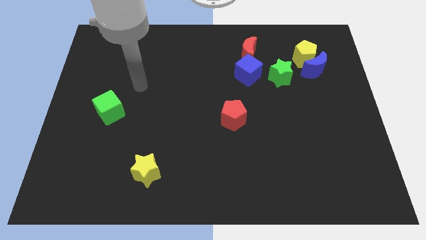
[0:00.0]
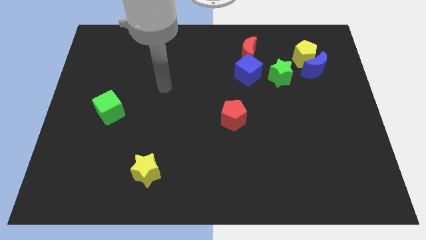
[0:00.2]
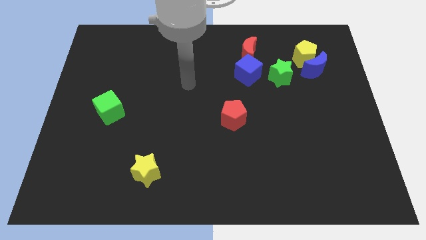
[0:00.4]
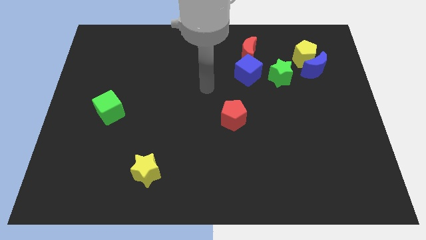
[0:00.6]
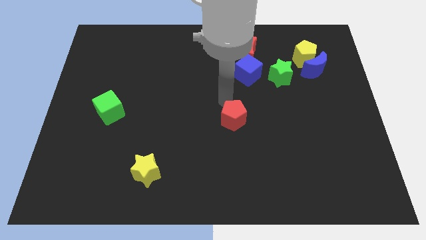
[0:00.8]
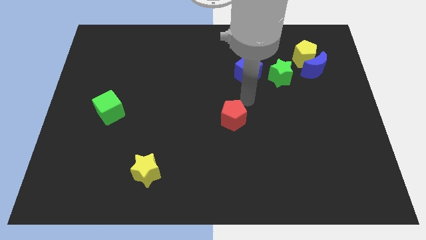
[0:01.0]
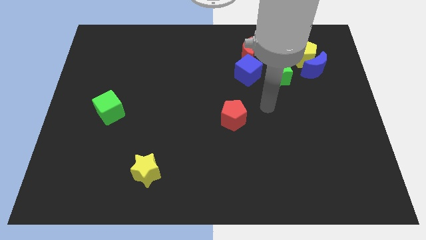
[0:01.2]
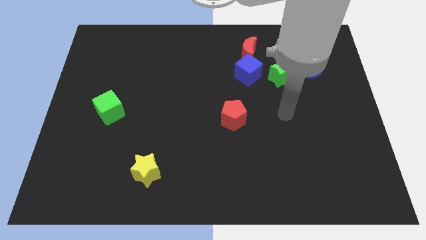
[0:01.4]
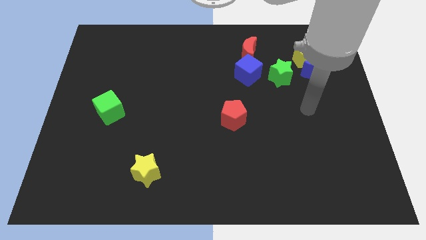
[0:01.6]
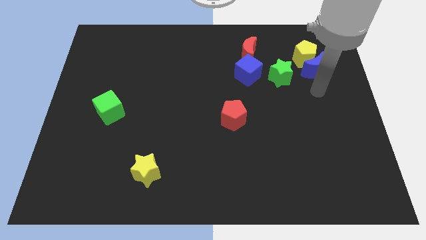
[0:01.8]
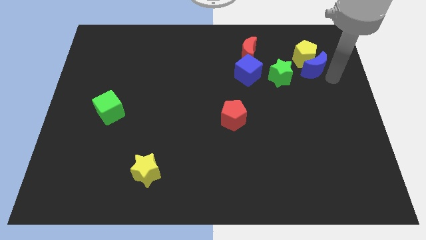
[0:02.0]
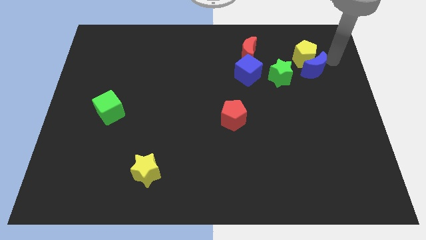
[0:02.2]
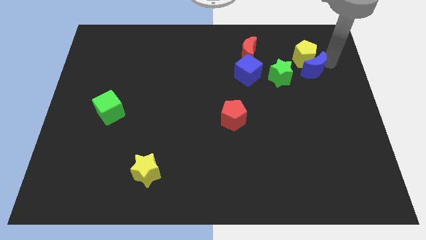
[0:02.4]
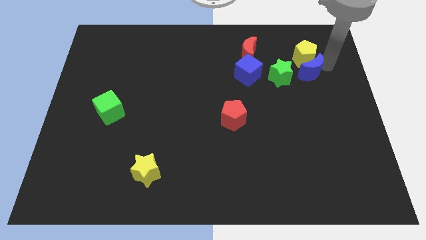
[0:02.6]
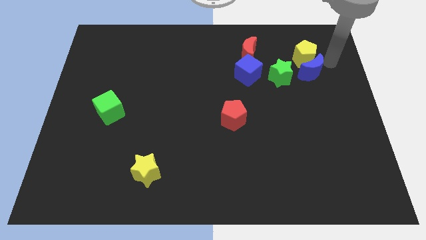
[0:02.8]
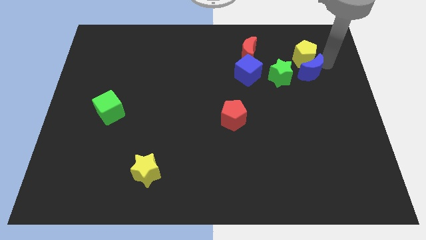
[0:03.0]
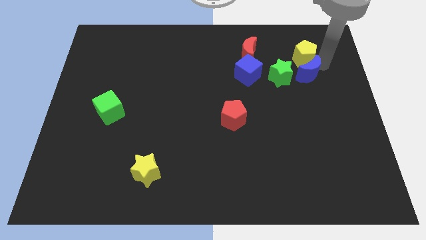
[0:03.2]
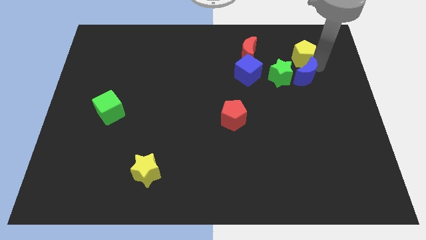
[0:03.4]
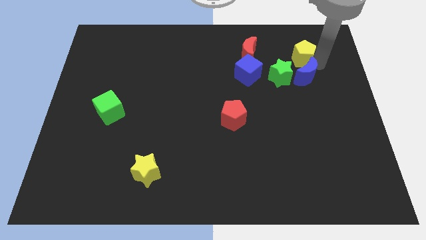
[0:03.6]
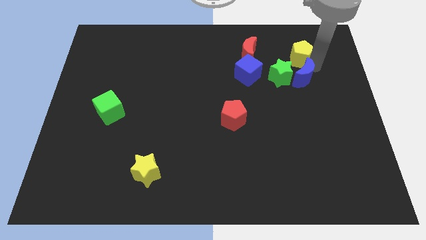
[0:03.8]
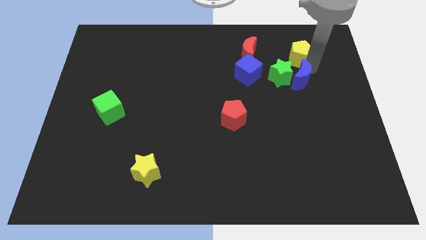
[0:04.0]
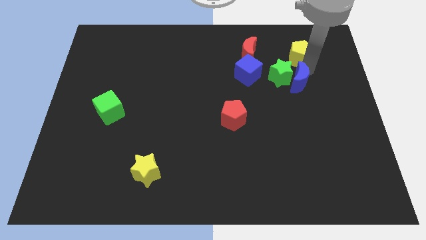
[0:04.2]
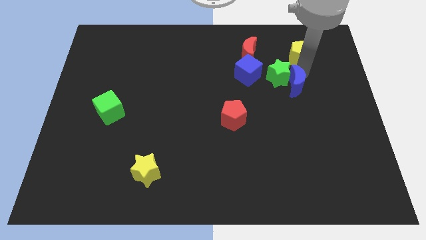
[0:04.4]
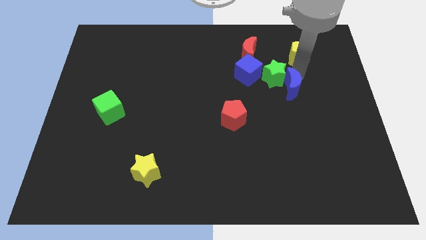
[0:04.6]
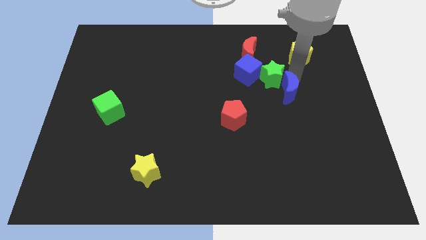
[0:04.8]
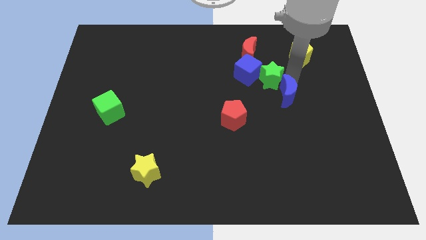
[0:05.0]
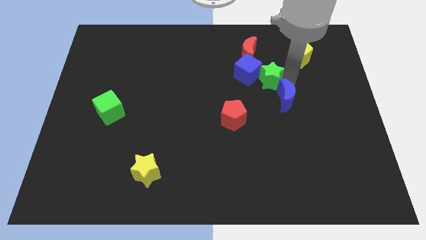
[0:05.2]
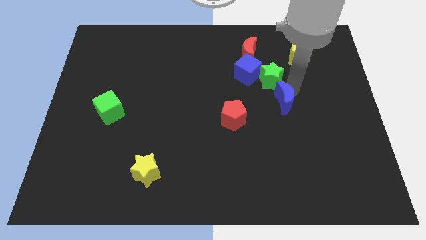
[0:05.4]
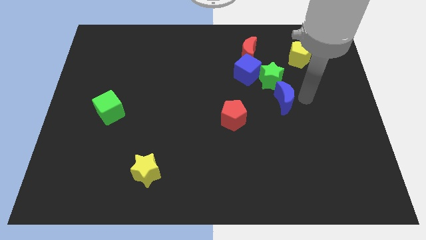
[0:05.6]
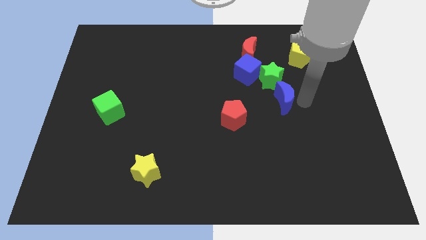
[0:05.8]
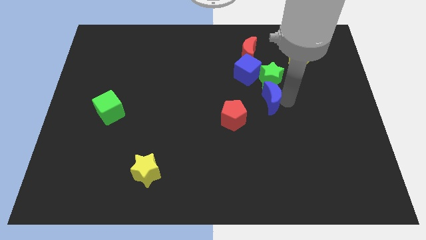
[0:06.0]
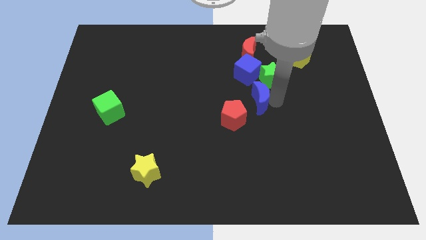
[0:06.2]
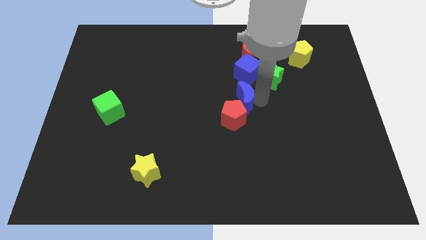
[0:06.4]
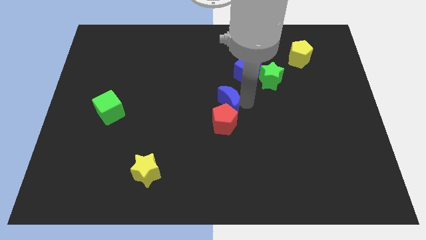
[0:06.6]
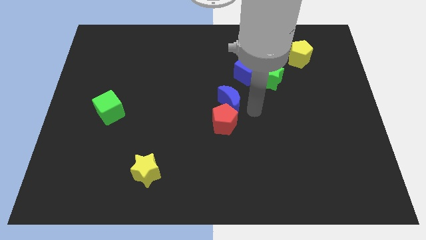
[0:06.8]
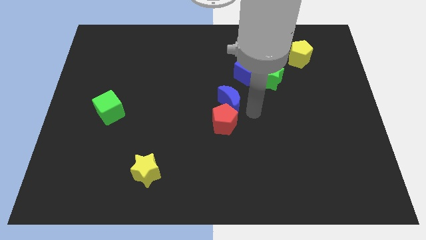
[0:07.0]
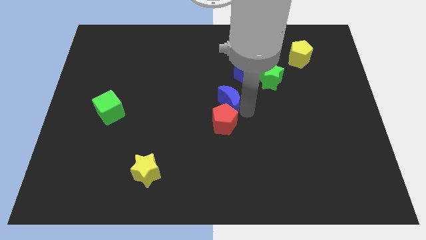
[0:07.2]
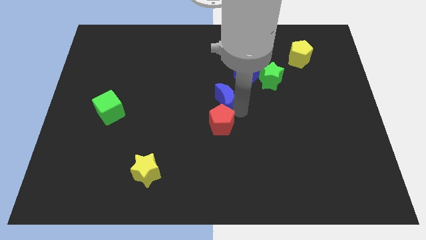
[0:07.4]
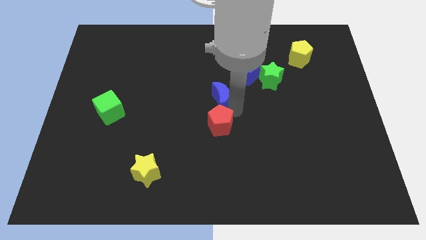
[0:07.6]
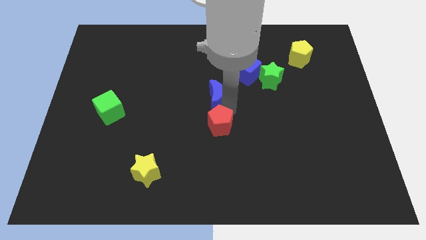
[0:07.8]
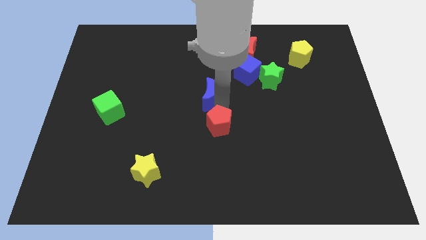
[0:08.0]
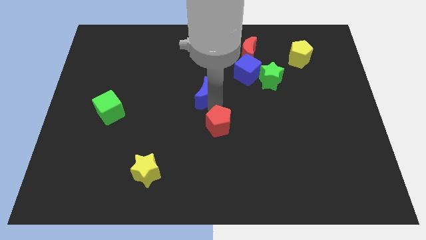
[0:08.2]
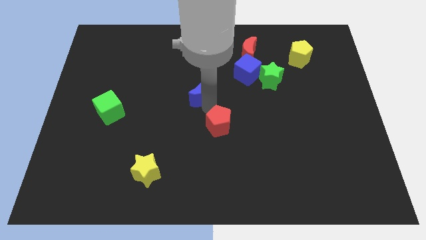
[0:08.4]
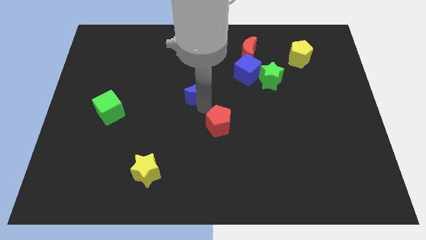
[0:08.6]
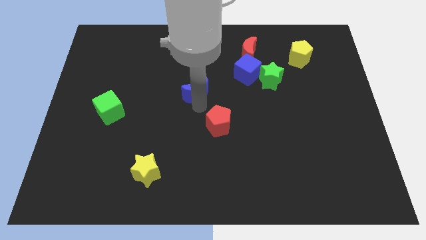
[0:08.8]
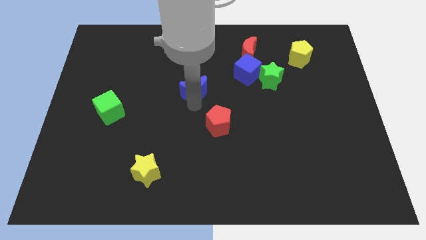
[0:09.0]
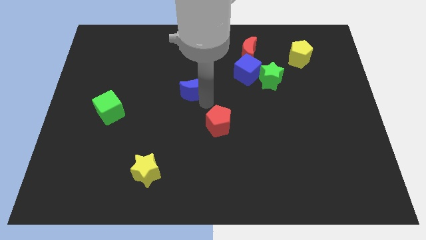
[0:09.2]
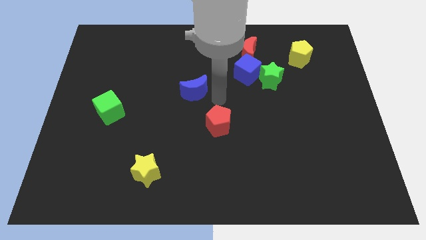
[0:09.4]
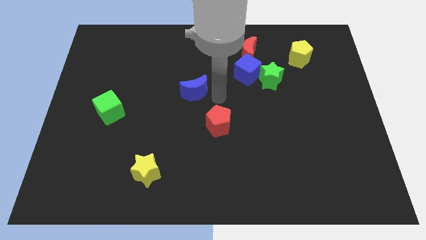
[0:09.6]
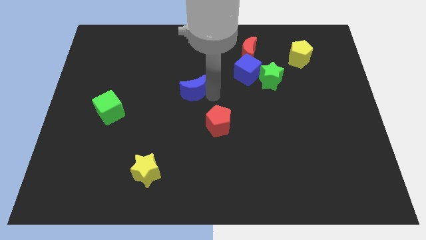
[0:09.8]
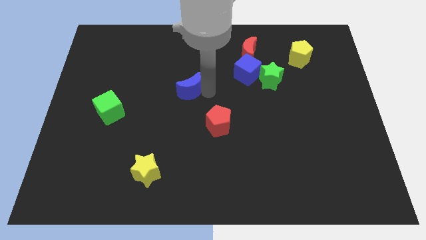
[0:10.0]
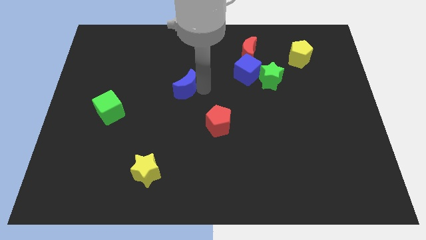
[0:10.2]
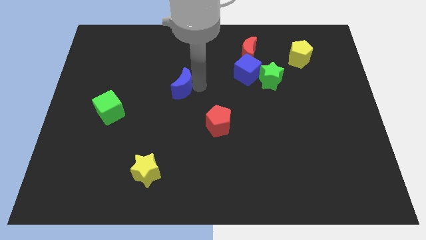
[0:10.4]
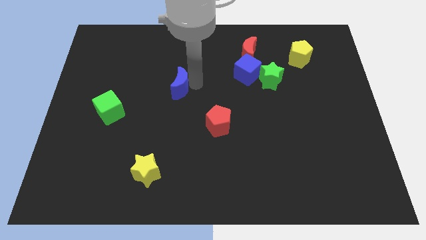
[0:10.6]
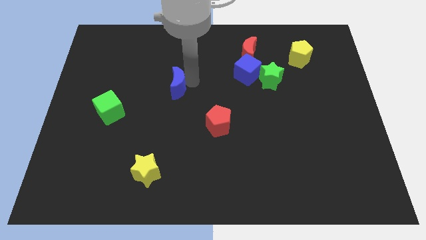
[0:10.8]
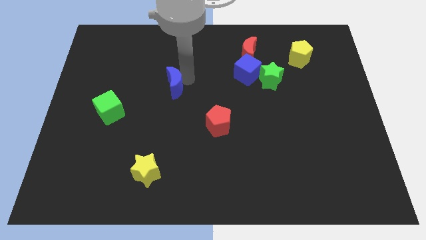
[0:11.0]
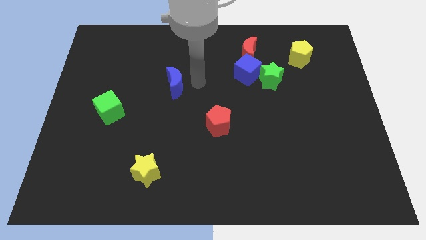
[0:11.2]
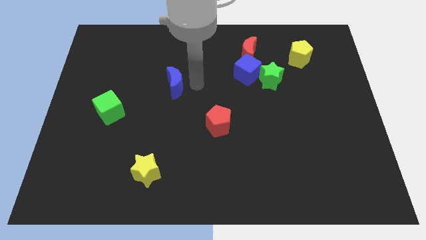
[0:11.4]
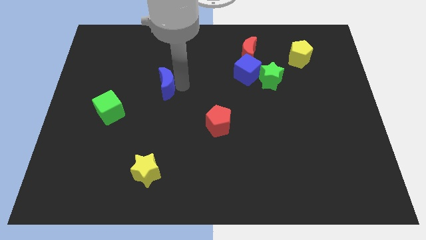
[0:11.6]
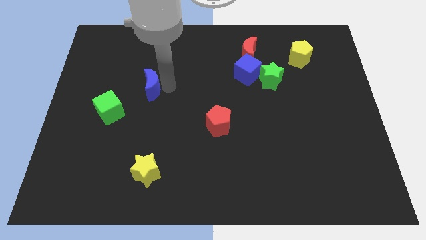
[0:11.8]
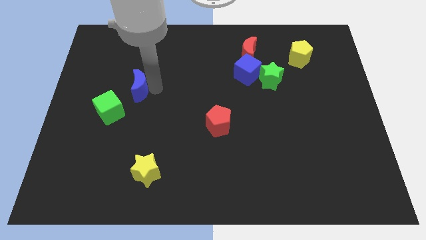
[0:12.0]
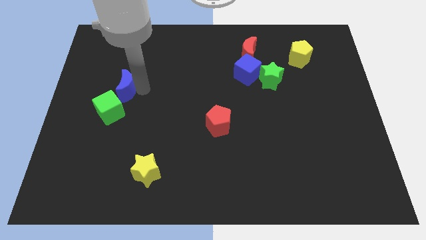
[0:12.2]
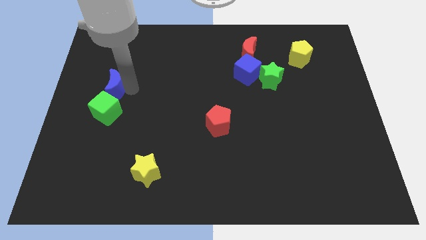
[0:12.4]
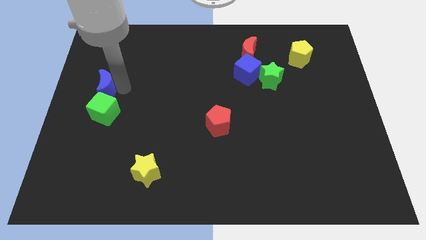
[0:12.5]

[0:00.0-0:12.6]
put the blue moon to the center left
